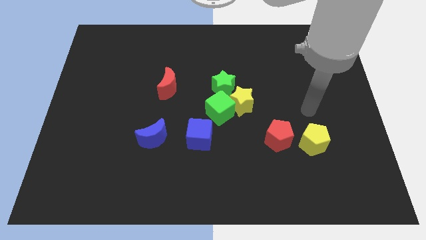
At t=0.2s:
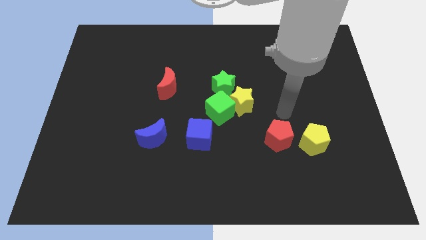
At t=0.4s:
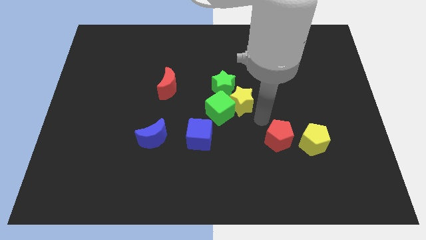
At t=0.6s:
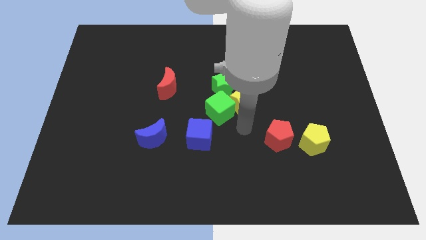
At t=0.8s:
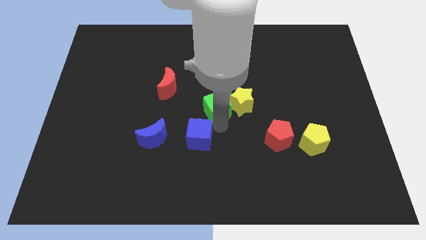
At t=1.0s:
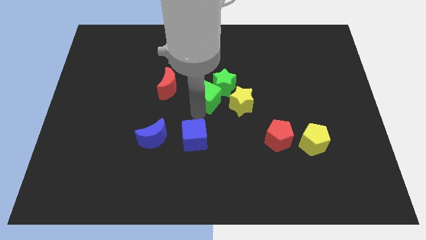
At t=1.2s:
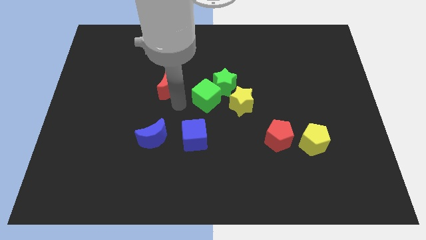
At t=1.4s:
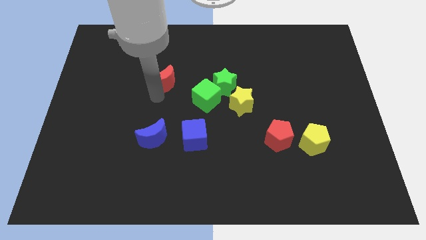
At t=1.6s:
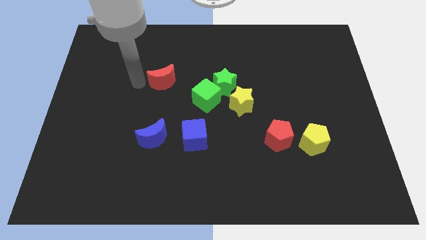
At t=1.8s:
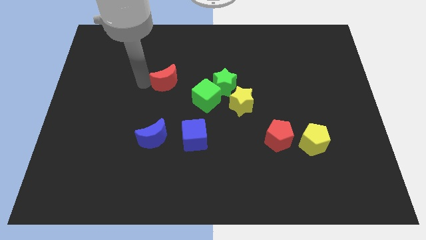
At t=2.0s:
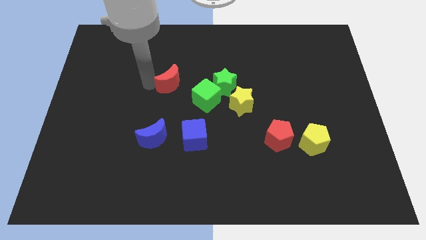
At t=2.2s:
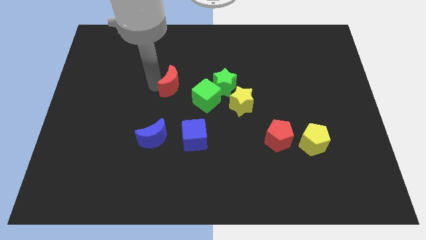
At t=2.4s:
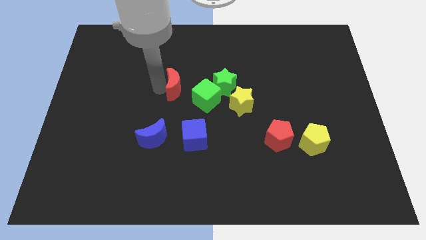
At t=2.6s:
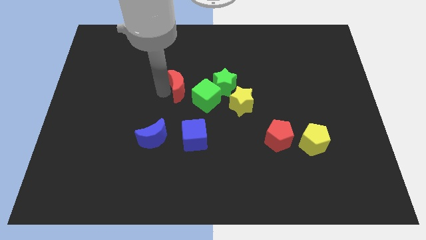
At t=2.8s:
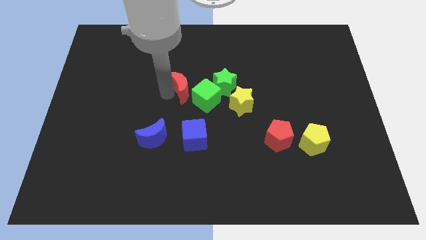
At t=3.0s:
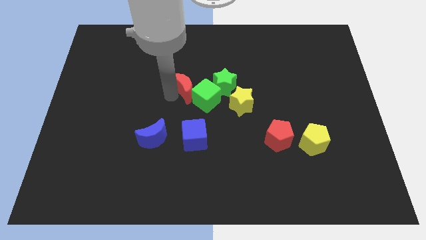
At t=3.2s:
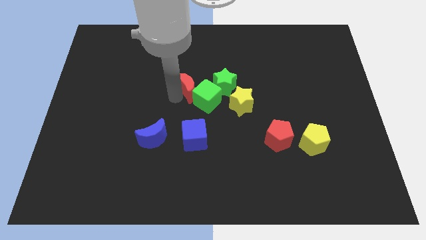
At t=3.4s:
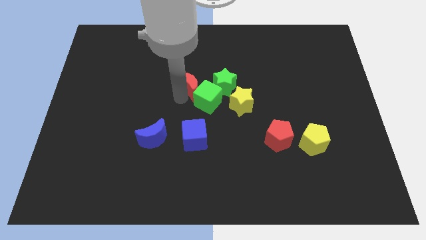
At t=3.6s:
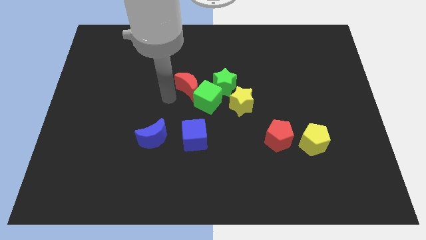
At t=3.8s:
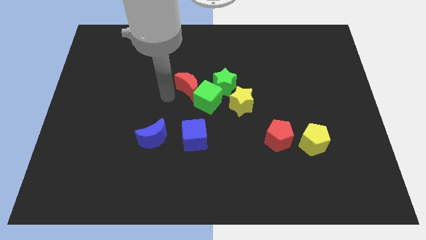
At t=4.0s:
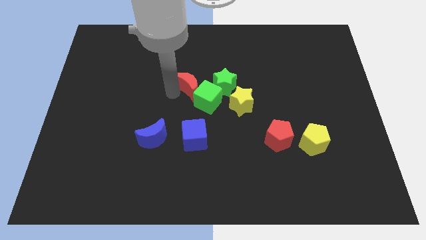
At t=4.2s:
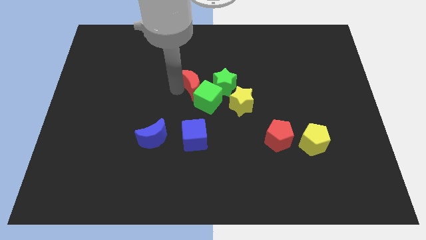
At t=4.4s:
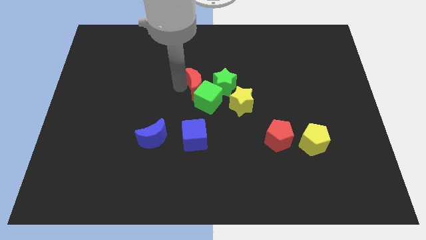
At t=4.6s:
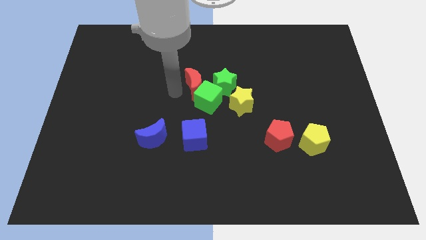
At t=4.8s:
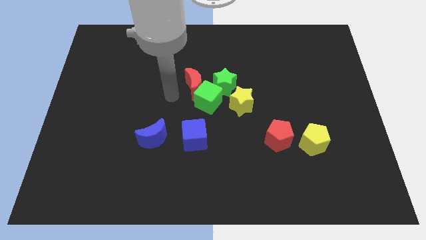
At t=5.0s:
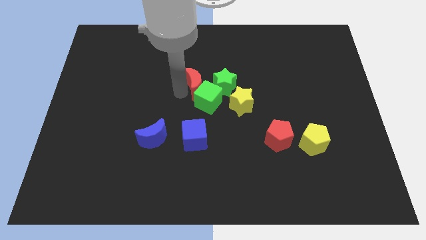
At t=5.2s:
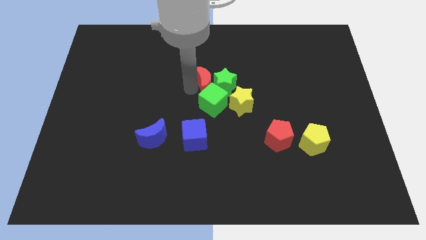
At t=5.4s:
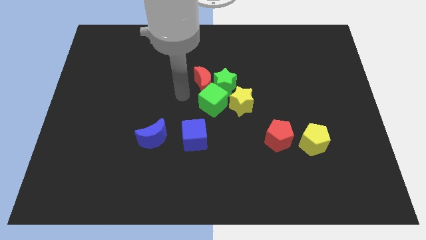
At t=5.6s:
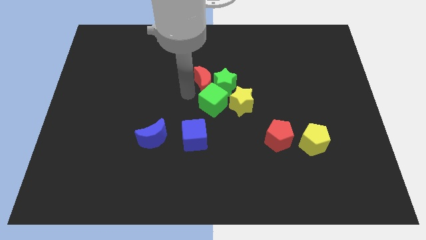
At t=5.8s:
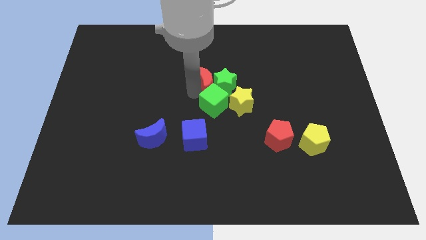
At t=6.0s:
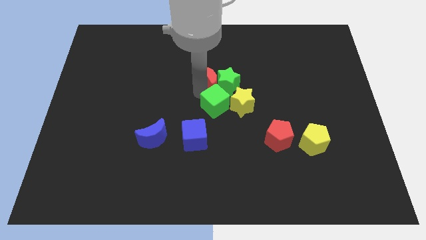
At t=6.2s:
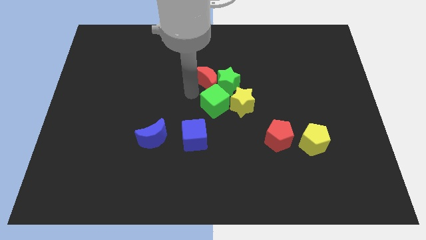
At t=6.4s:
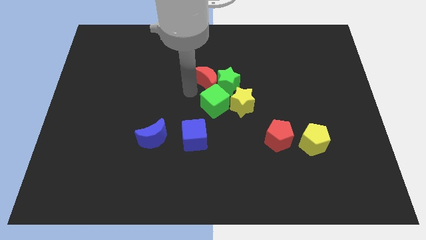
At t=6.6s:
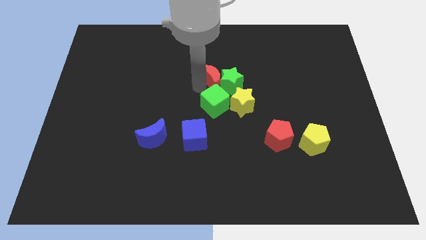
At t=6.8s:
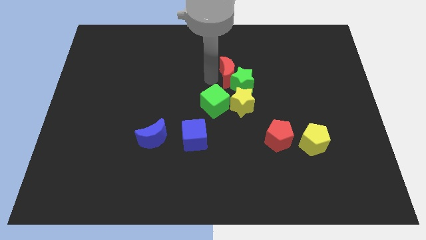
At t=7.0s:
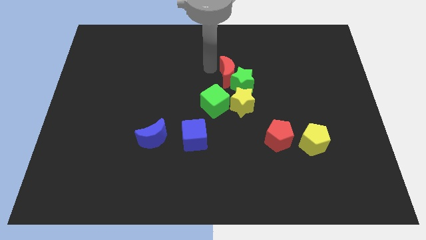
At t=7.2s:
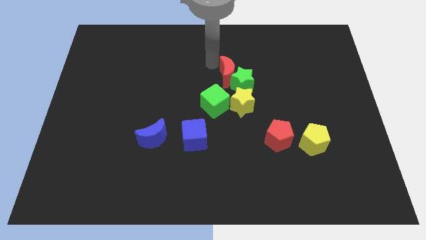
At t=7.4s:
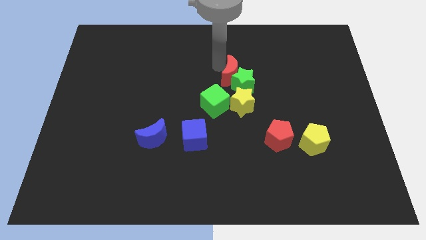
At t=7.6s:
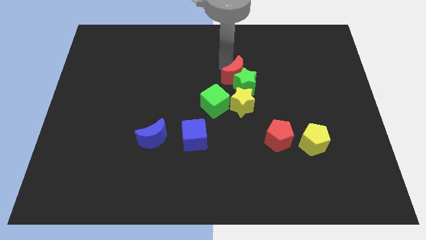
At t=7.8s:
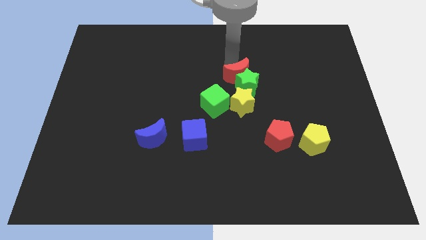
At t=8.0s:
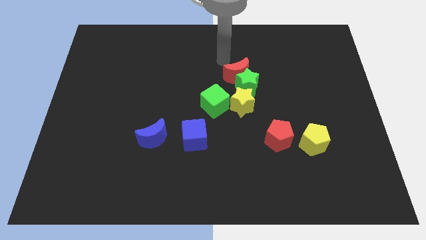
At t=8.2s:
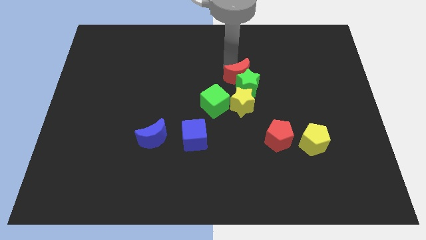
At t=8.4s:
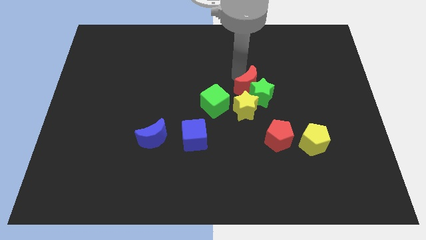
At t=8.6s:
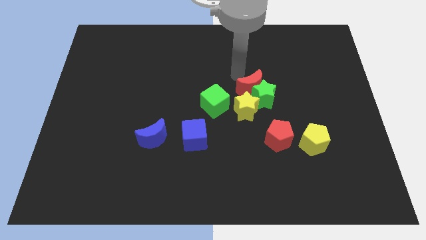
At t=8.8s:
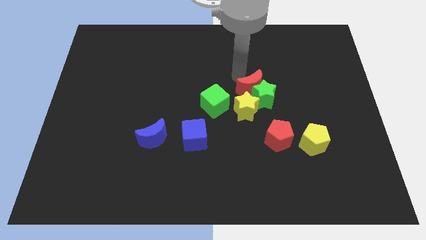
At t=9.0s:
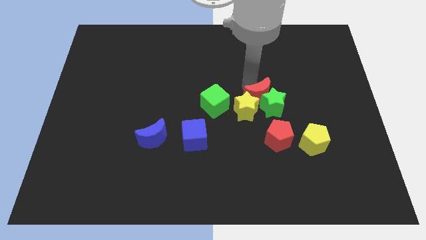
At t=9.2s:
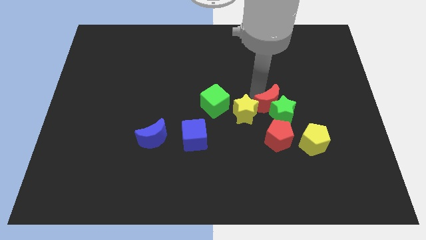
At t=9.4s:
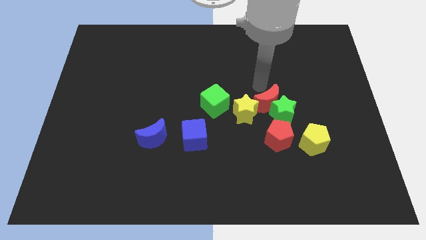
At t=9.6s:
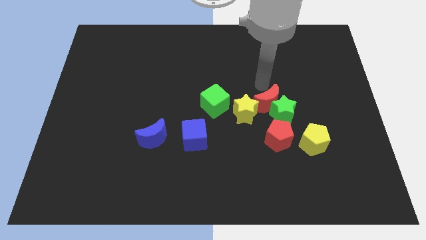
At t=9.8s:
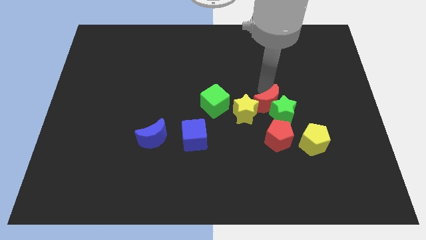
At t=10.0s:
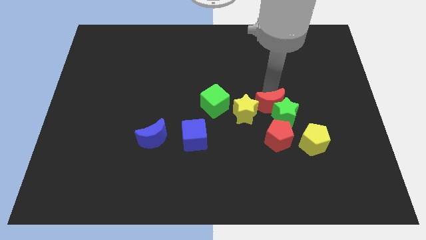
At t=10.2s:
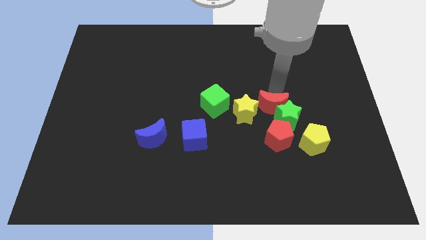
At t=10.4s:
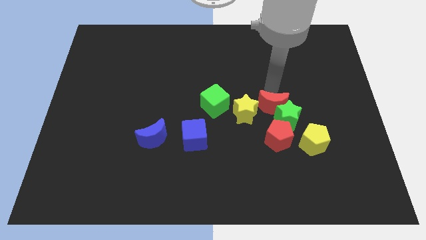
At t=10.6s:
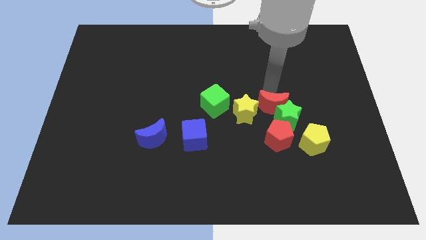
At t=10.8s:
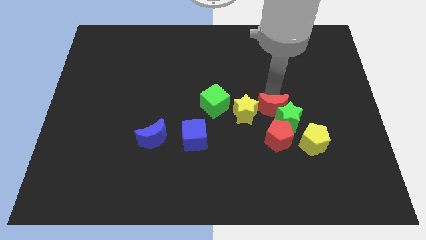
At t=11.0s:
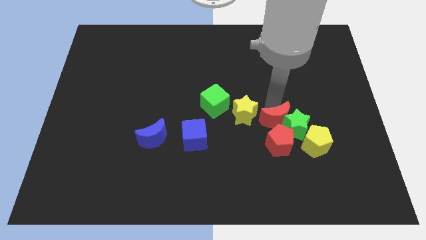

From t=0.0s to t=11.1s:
slide the red moon towards the red pentagon
